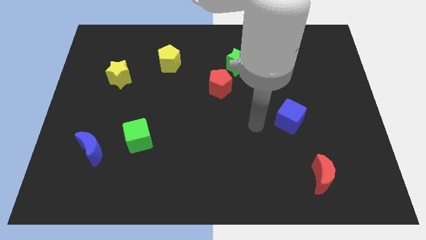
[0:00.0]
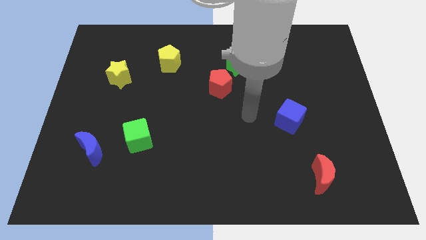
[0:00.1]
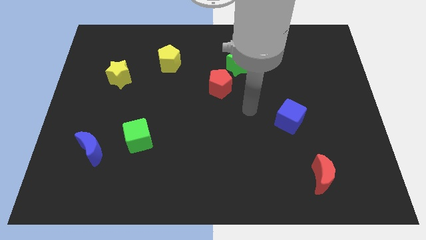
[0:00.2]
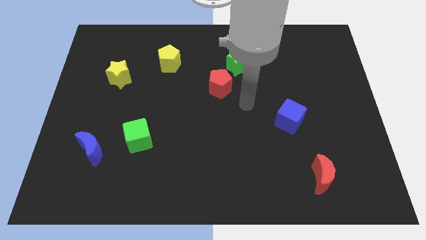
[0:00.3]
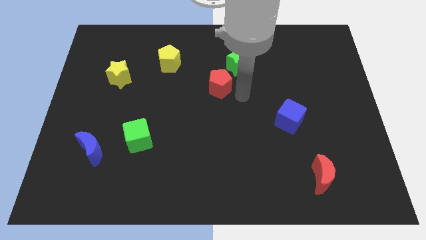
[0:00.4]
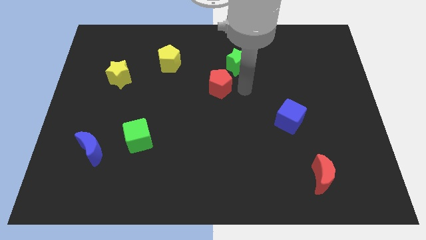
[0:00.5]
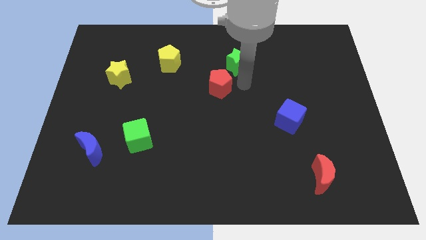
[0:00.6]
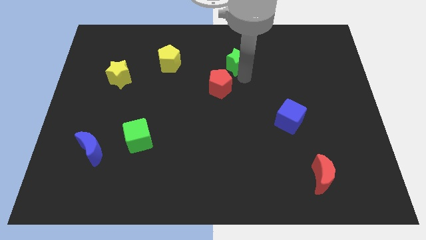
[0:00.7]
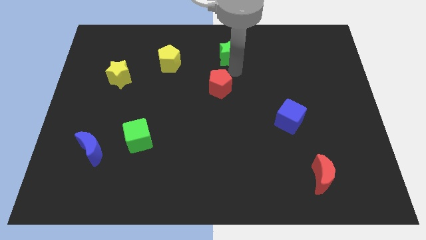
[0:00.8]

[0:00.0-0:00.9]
move the red pentagon away from the green star

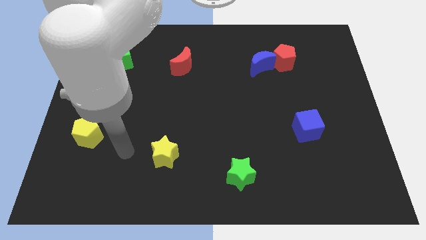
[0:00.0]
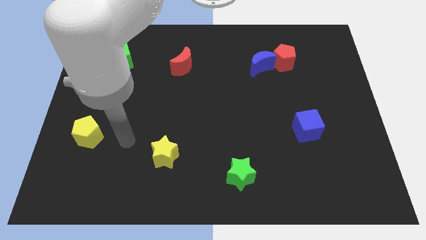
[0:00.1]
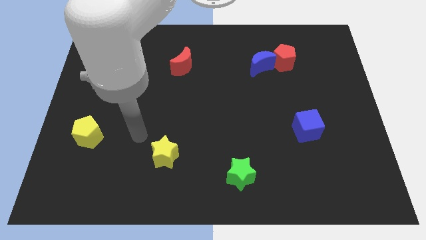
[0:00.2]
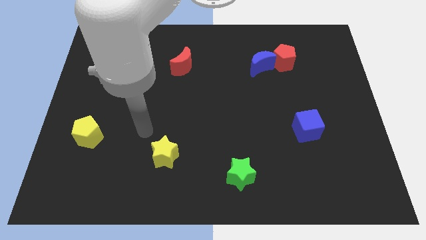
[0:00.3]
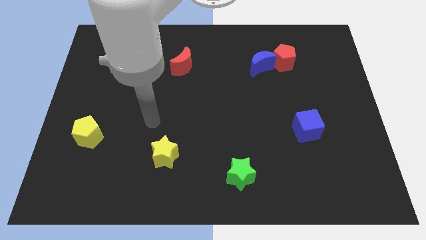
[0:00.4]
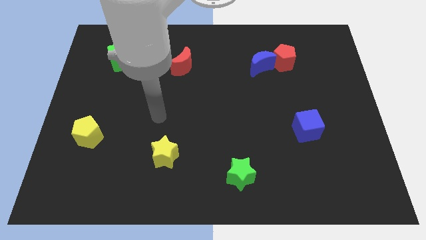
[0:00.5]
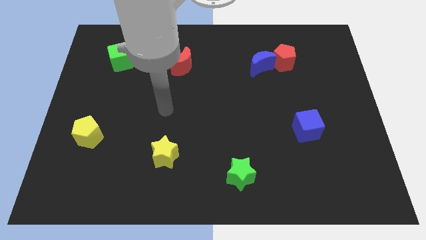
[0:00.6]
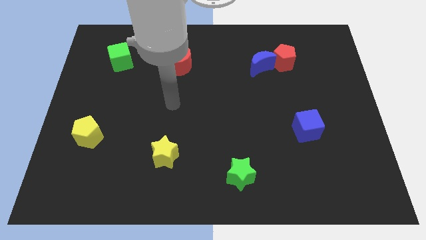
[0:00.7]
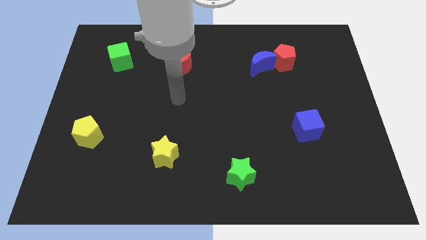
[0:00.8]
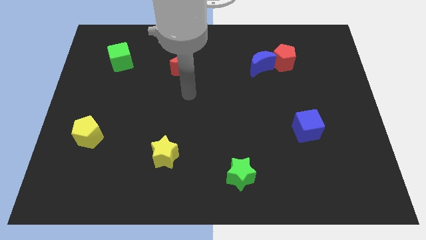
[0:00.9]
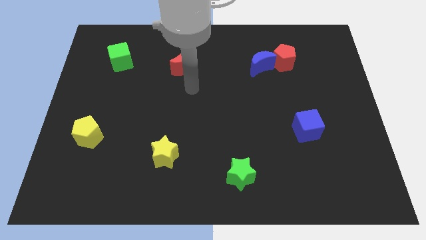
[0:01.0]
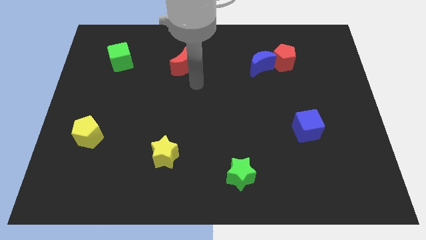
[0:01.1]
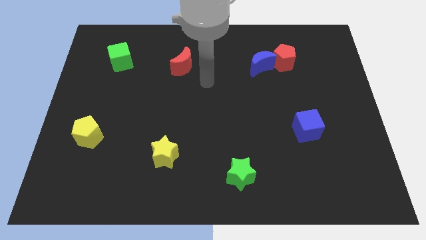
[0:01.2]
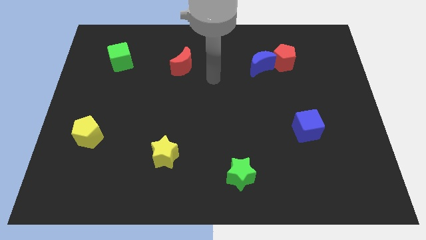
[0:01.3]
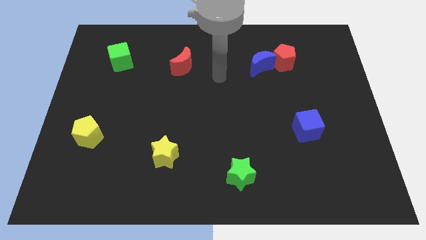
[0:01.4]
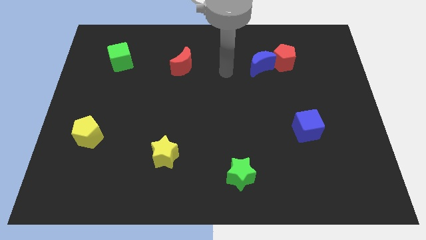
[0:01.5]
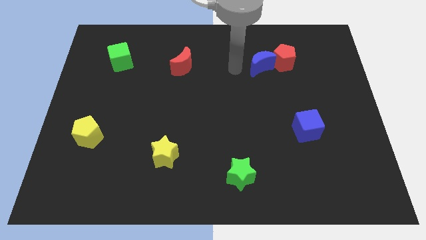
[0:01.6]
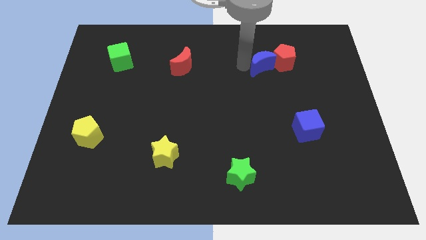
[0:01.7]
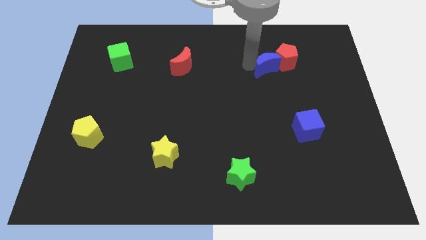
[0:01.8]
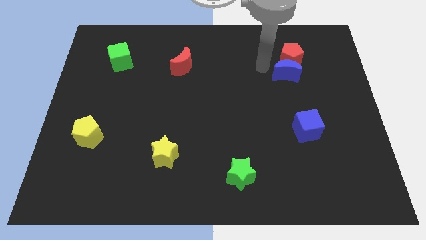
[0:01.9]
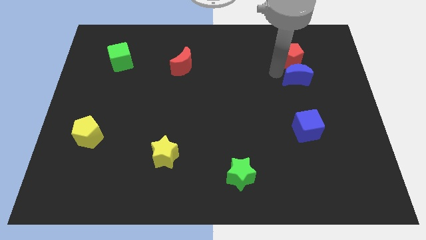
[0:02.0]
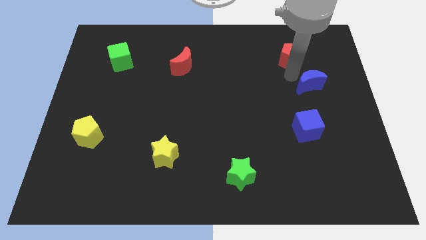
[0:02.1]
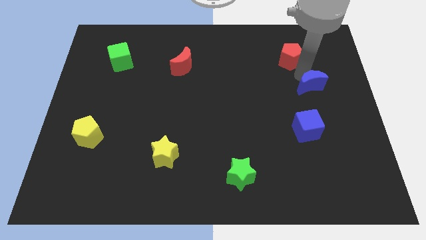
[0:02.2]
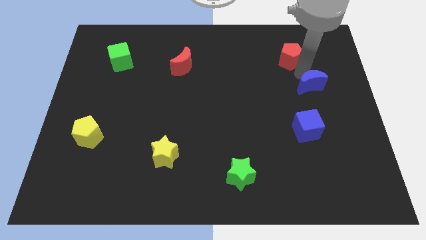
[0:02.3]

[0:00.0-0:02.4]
pull the red pentagon apart from the blue moon

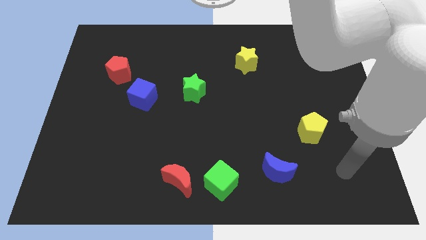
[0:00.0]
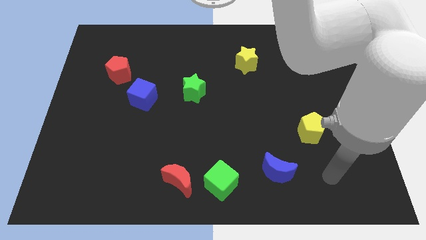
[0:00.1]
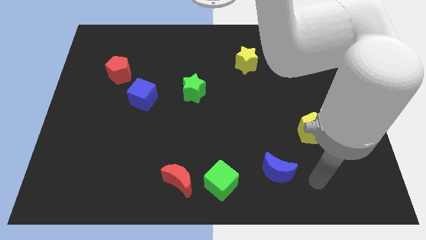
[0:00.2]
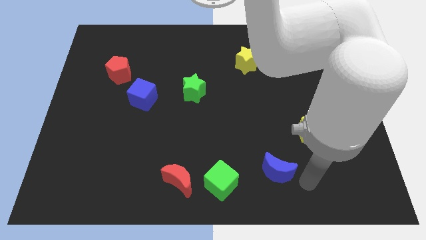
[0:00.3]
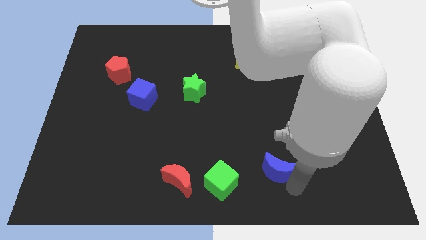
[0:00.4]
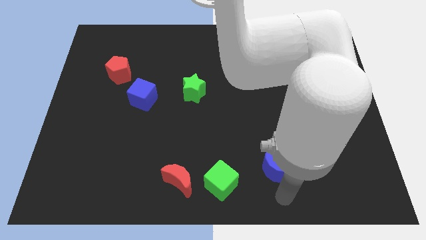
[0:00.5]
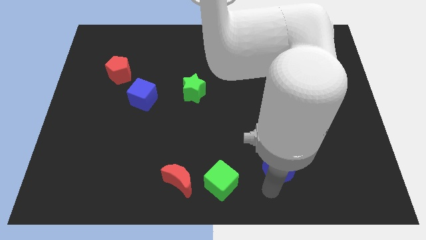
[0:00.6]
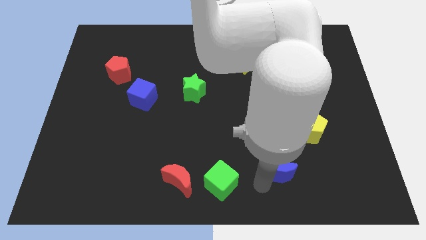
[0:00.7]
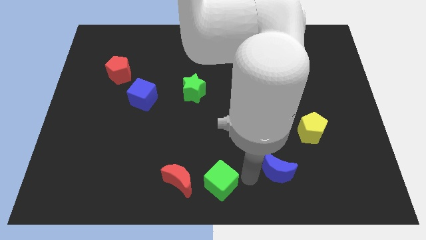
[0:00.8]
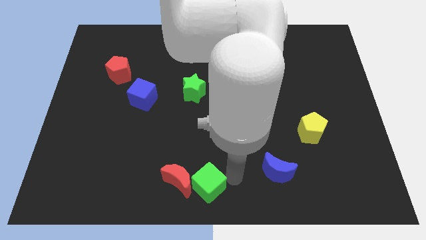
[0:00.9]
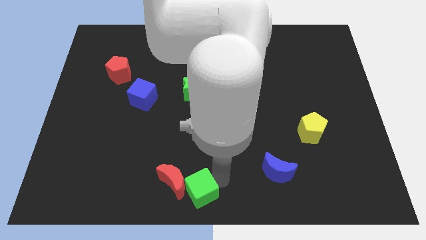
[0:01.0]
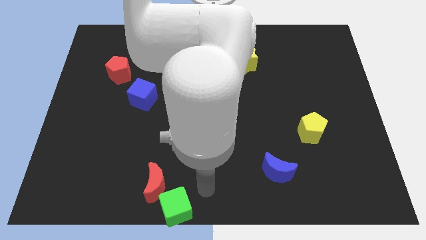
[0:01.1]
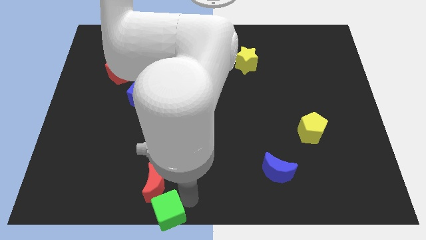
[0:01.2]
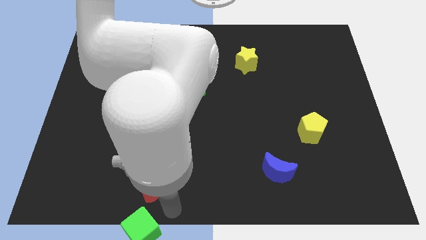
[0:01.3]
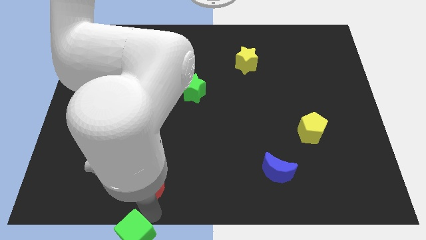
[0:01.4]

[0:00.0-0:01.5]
pull the red moon apart from the green cube

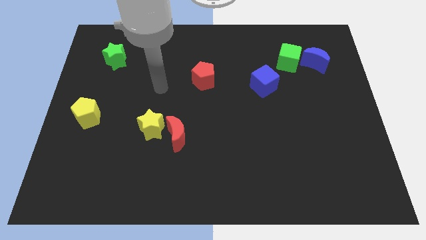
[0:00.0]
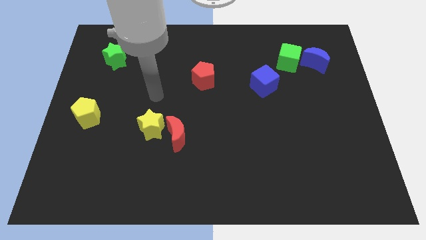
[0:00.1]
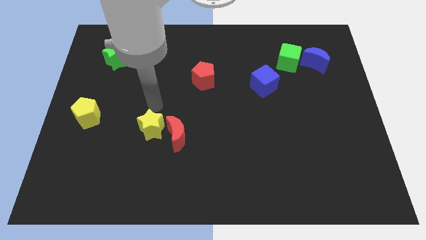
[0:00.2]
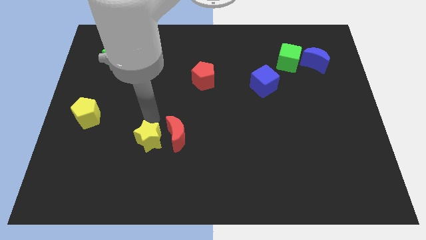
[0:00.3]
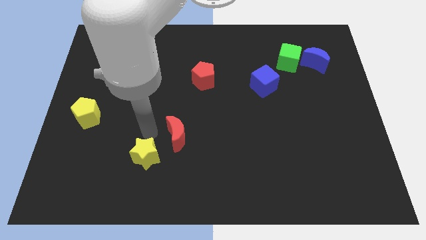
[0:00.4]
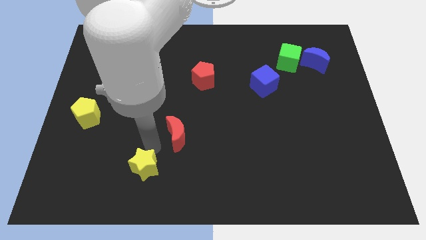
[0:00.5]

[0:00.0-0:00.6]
move the red moon away from the yellow star

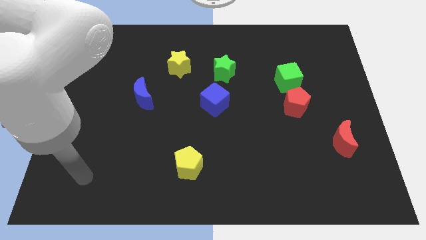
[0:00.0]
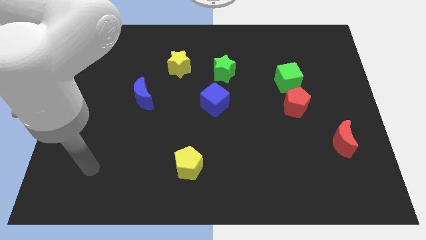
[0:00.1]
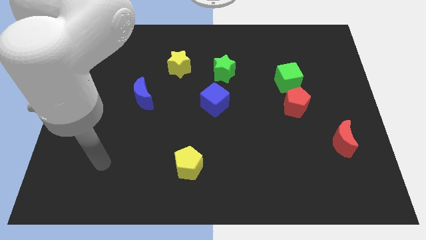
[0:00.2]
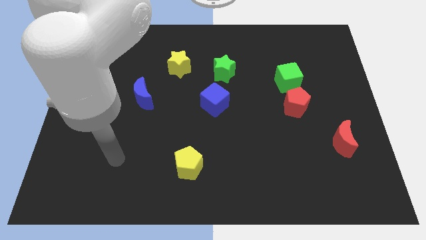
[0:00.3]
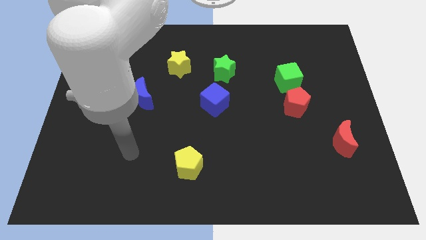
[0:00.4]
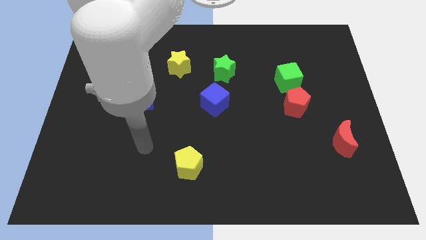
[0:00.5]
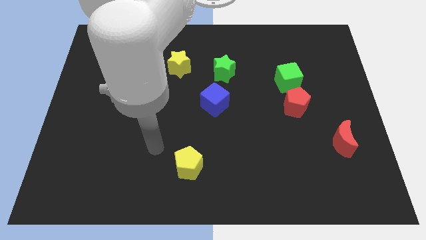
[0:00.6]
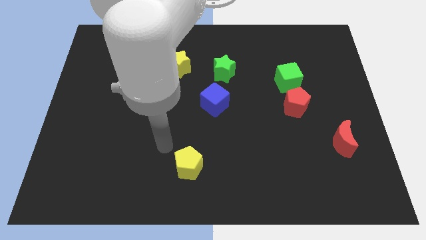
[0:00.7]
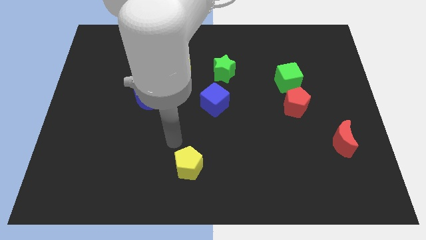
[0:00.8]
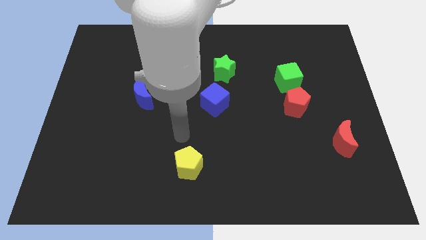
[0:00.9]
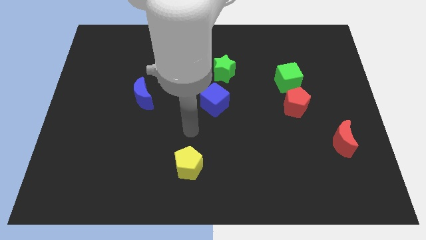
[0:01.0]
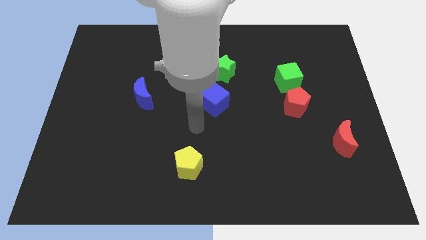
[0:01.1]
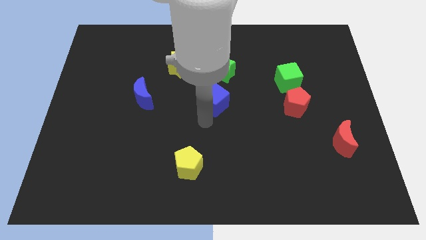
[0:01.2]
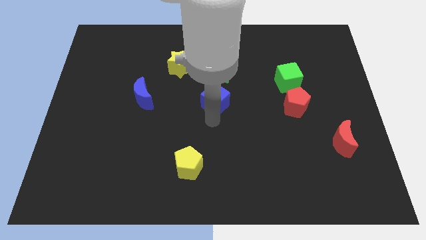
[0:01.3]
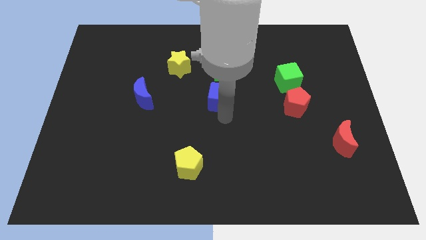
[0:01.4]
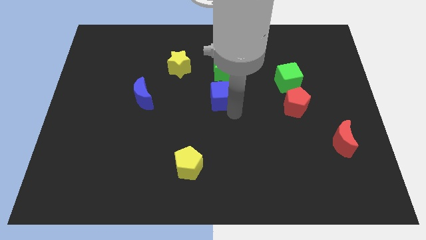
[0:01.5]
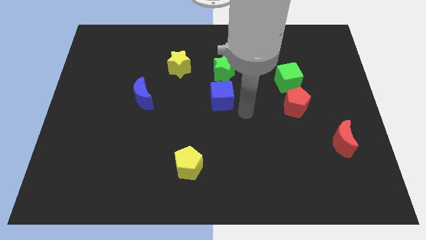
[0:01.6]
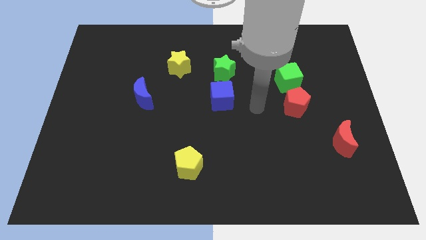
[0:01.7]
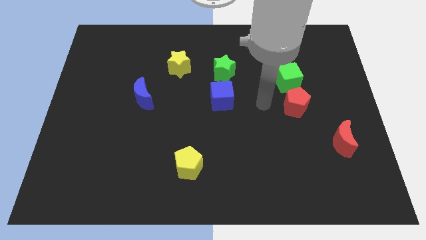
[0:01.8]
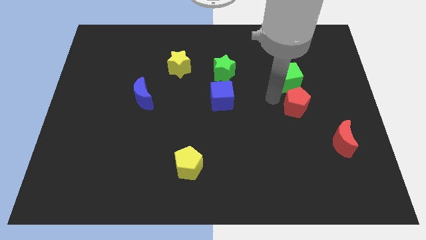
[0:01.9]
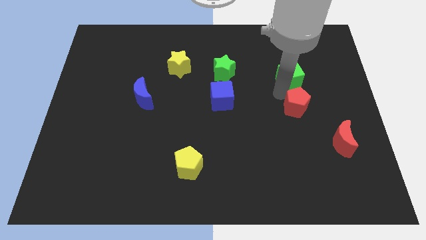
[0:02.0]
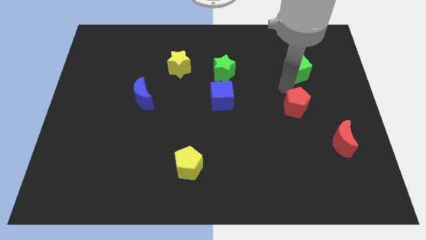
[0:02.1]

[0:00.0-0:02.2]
separate the red pentagon from the green cube

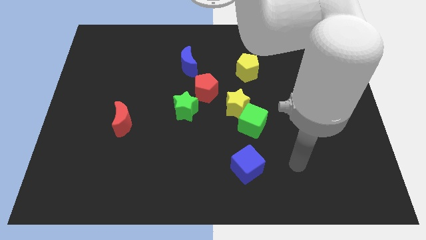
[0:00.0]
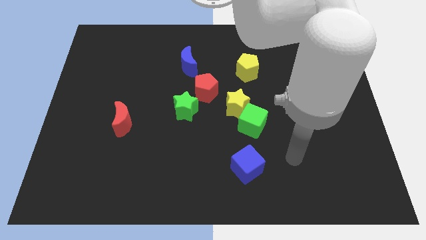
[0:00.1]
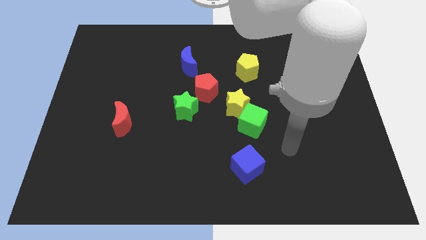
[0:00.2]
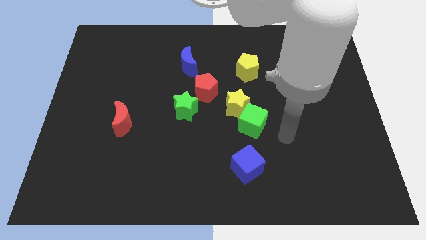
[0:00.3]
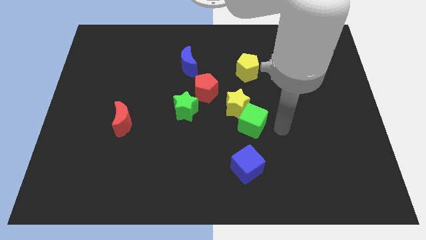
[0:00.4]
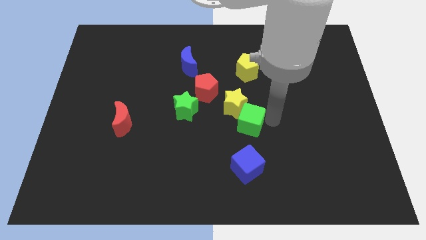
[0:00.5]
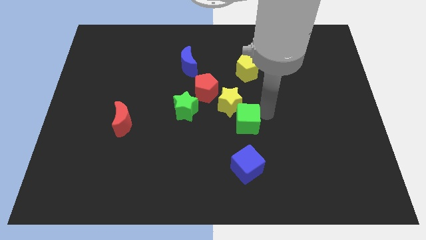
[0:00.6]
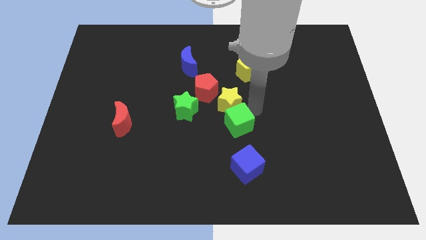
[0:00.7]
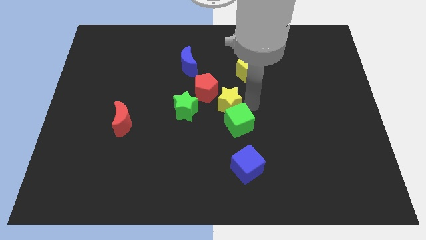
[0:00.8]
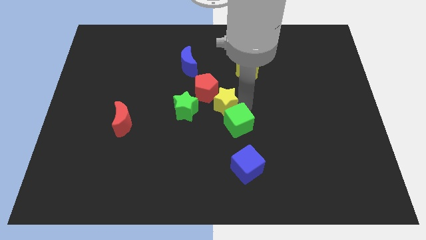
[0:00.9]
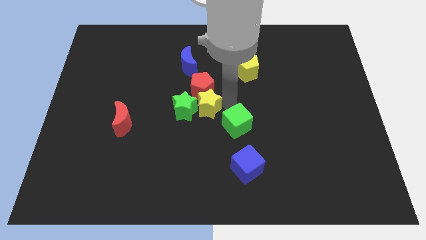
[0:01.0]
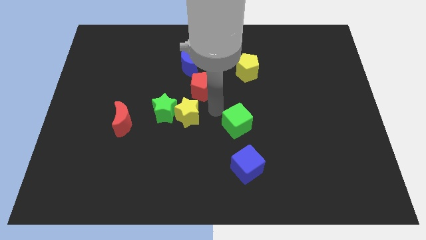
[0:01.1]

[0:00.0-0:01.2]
move the green cube away from the yellow star

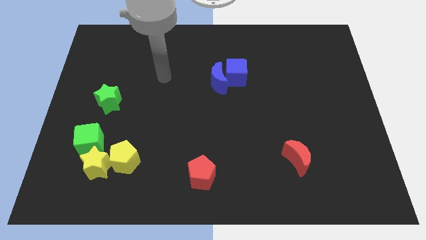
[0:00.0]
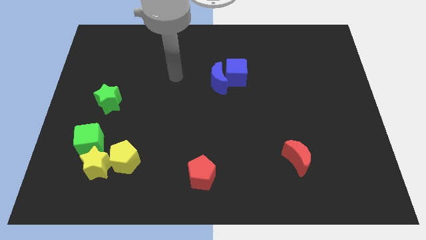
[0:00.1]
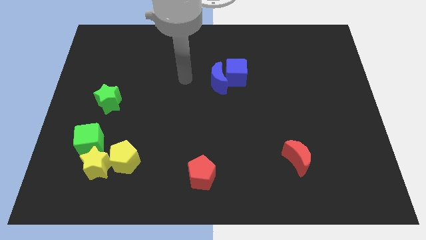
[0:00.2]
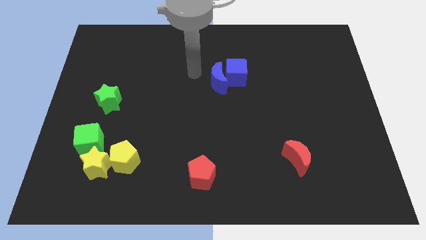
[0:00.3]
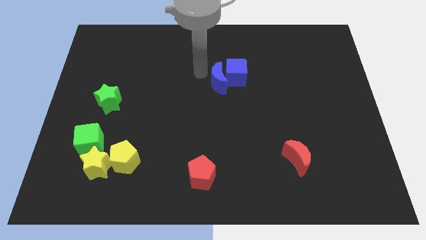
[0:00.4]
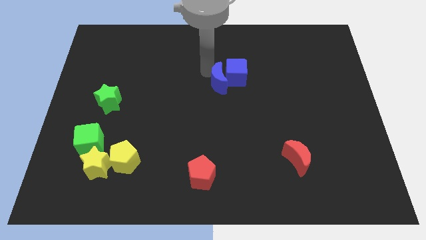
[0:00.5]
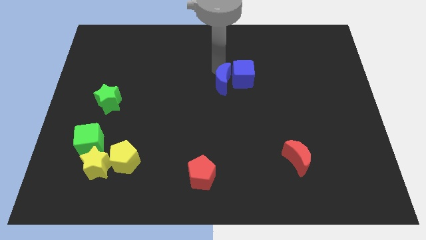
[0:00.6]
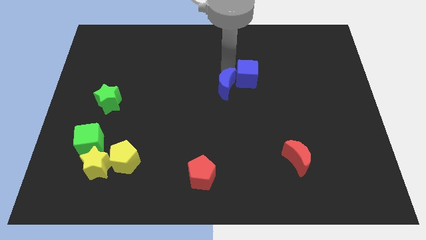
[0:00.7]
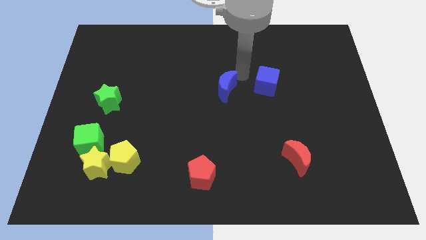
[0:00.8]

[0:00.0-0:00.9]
move the blue moon away from the blue cube
